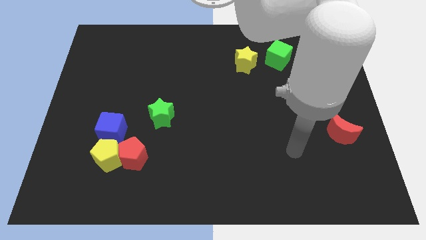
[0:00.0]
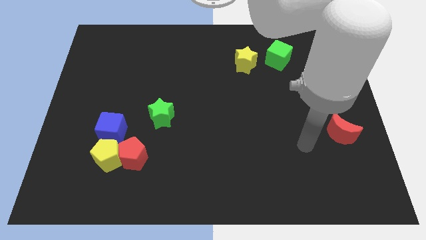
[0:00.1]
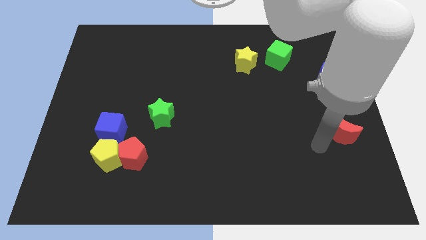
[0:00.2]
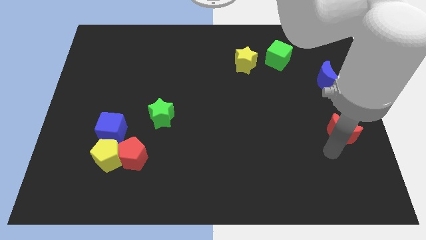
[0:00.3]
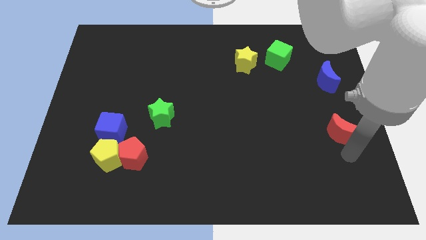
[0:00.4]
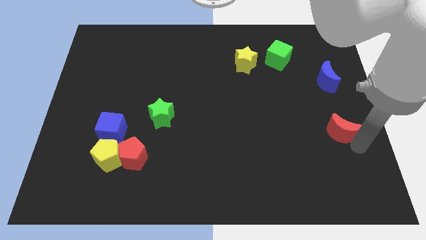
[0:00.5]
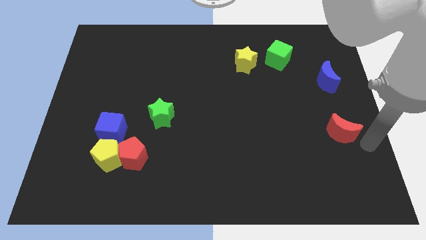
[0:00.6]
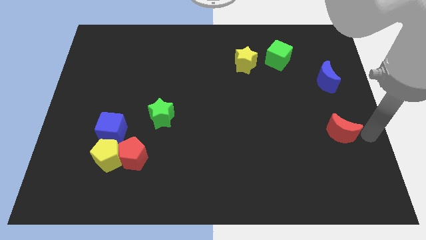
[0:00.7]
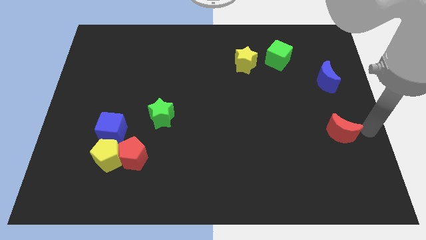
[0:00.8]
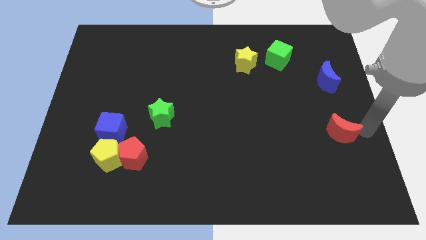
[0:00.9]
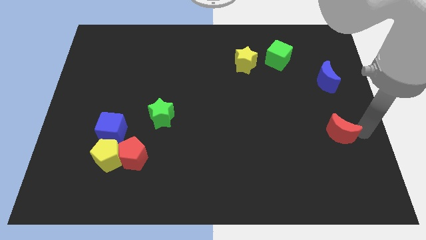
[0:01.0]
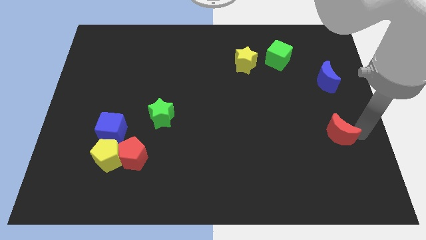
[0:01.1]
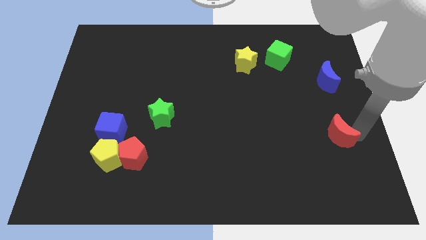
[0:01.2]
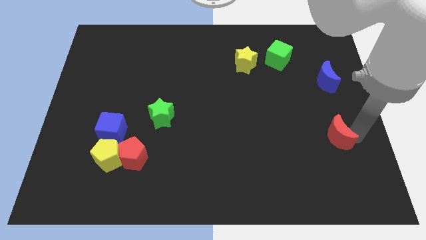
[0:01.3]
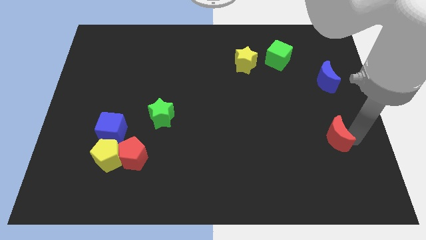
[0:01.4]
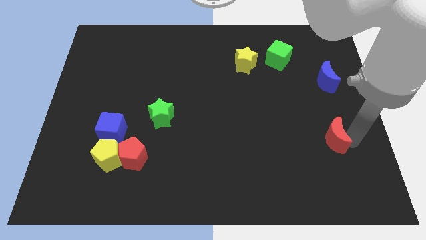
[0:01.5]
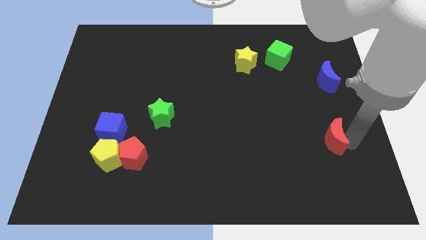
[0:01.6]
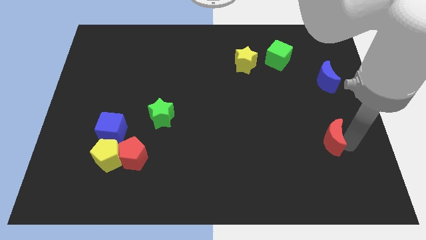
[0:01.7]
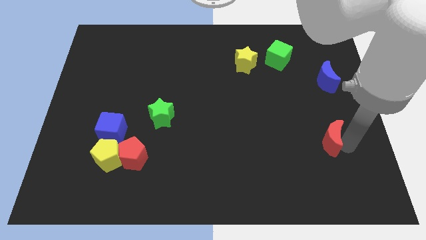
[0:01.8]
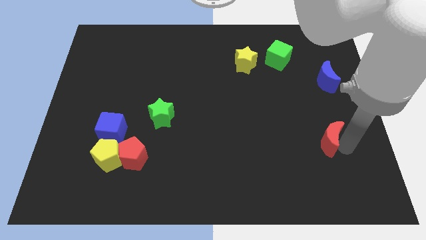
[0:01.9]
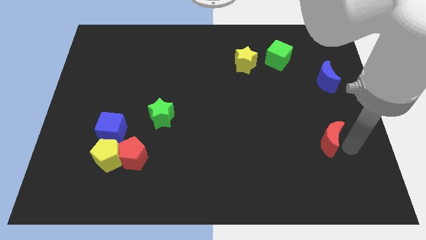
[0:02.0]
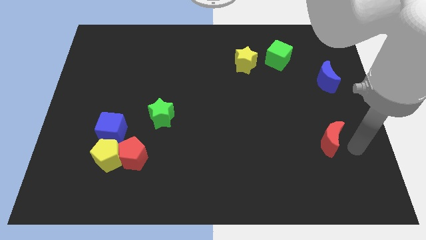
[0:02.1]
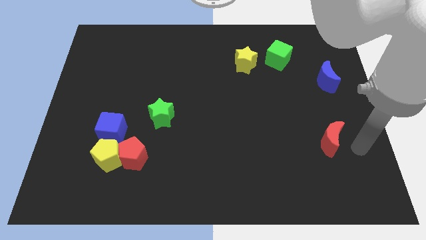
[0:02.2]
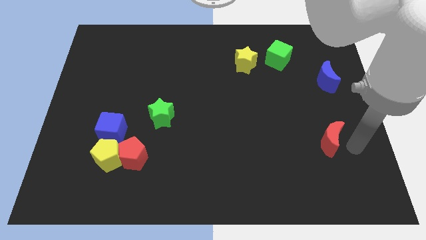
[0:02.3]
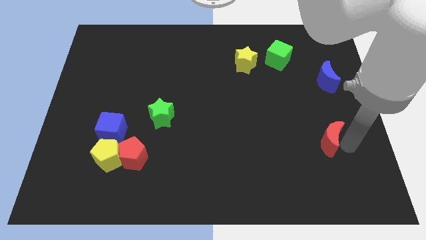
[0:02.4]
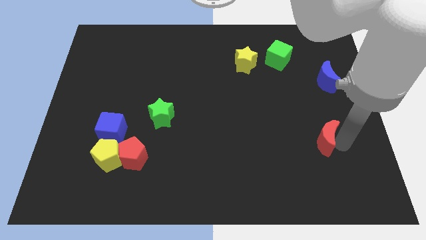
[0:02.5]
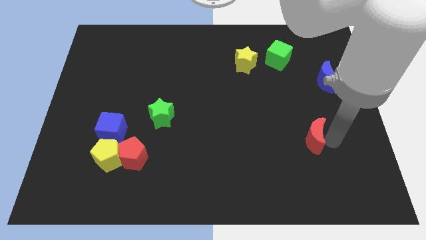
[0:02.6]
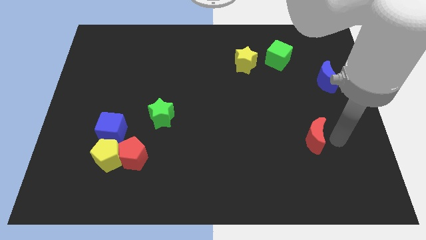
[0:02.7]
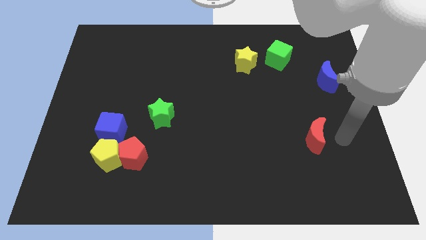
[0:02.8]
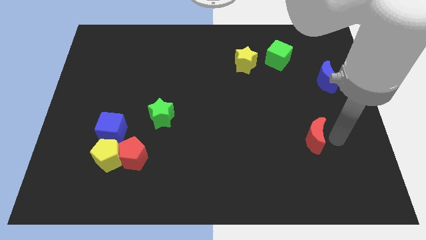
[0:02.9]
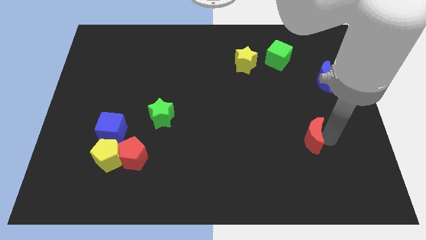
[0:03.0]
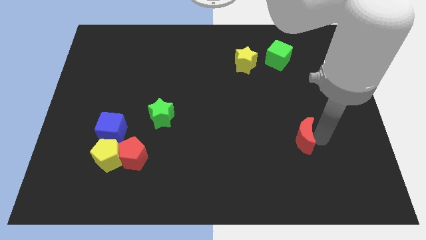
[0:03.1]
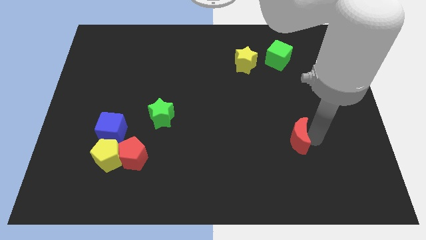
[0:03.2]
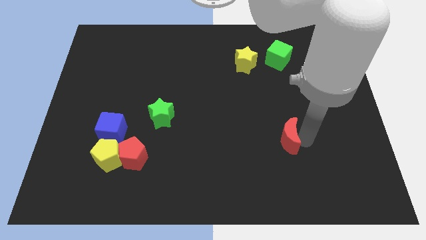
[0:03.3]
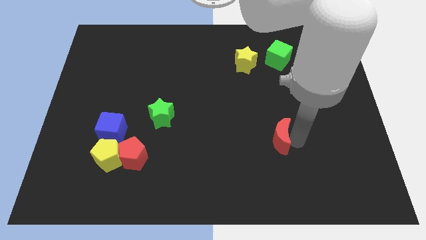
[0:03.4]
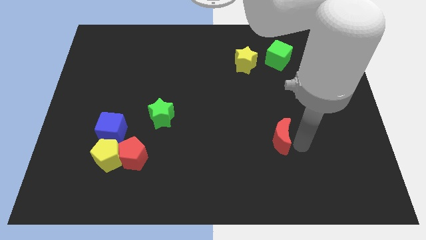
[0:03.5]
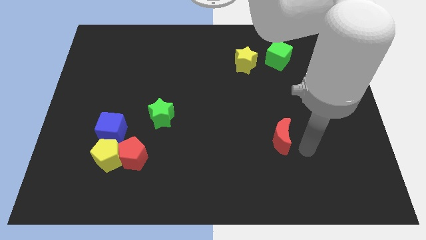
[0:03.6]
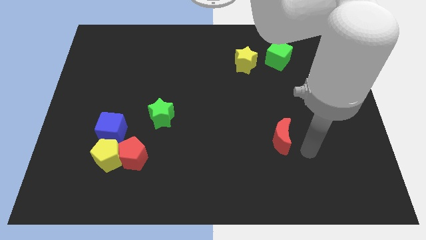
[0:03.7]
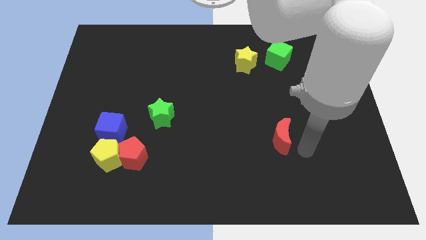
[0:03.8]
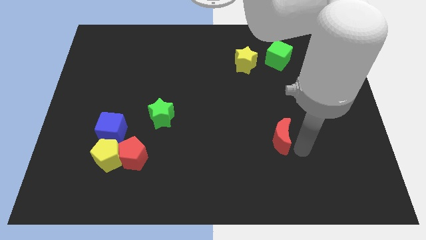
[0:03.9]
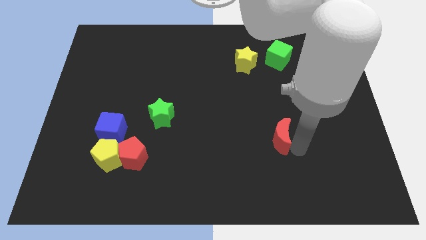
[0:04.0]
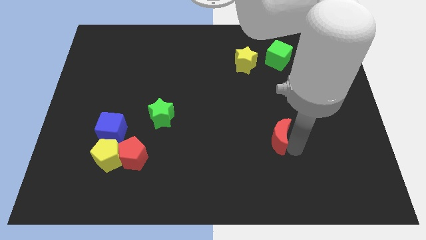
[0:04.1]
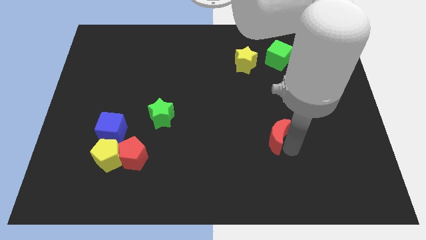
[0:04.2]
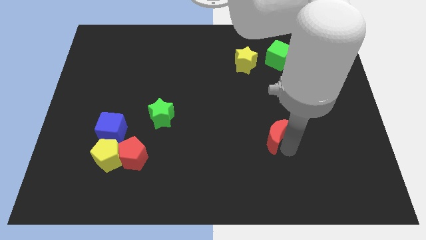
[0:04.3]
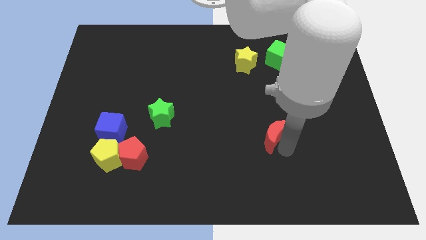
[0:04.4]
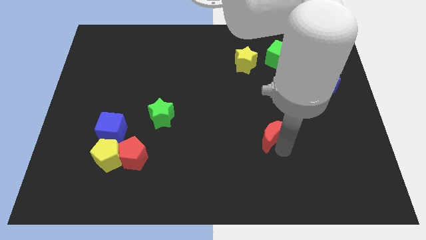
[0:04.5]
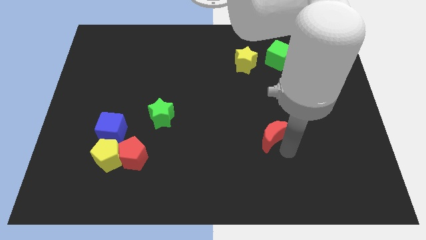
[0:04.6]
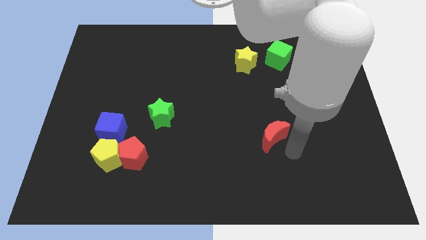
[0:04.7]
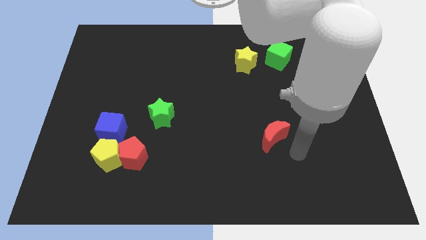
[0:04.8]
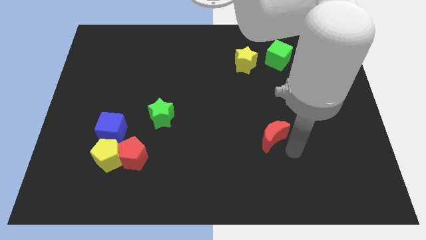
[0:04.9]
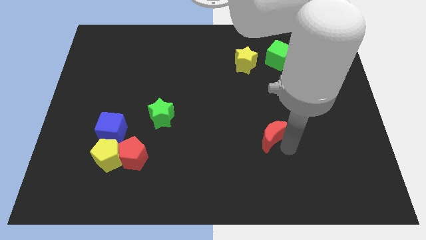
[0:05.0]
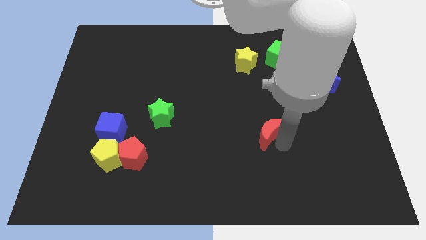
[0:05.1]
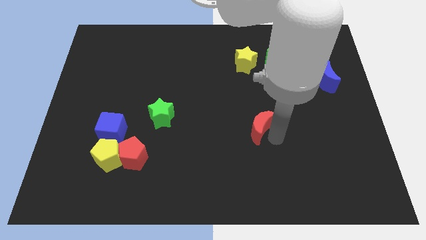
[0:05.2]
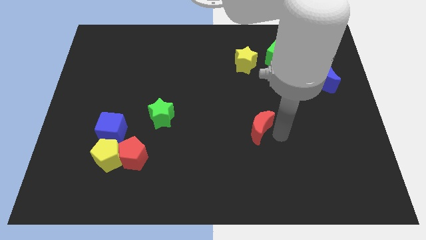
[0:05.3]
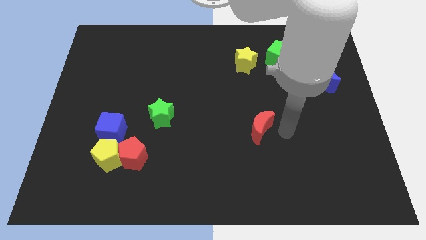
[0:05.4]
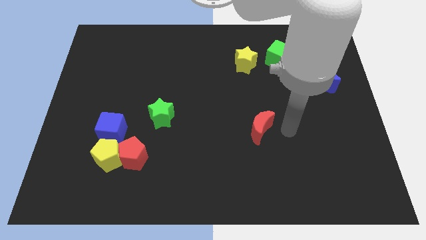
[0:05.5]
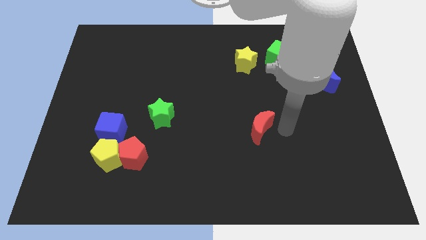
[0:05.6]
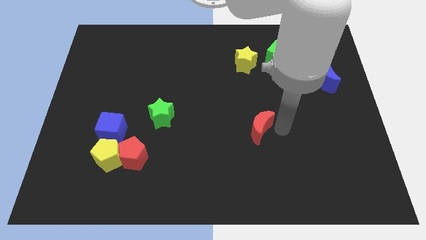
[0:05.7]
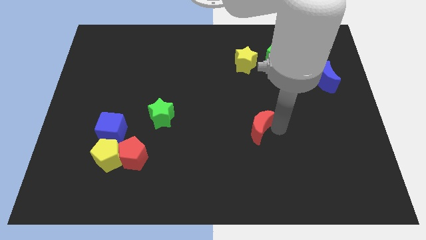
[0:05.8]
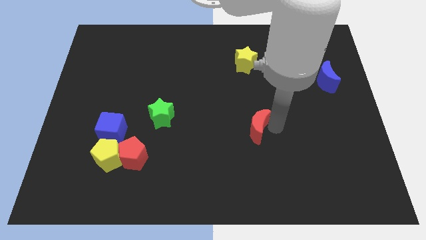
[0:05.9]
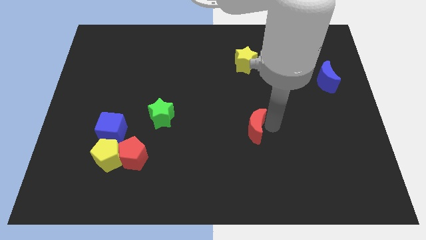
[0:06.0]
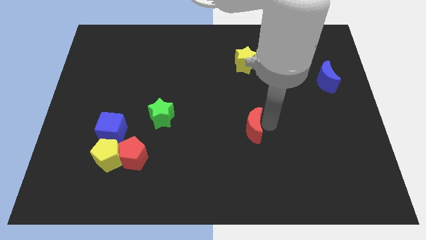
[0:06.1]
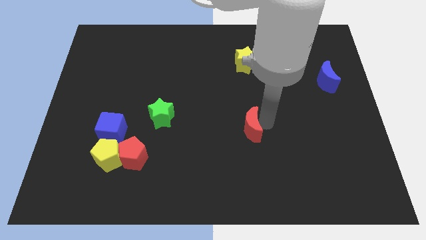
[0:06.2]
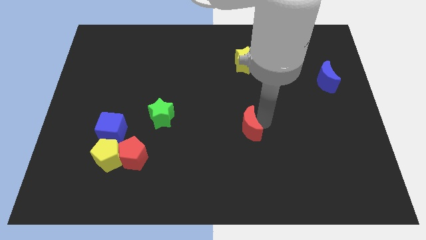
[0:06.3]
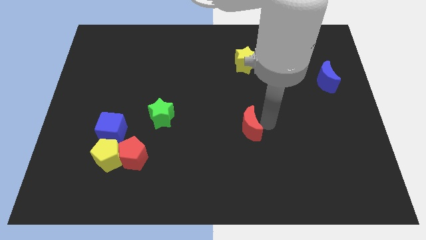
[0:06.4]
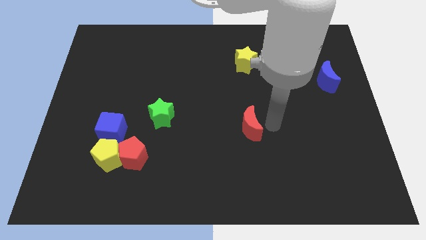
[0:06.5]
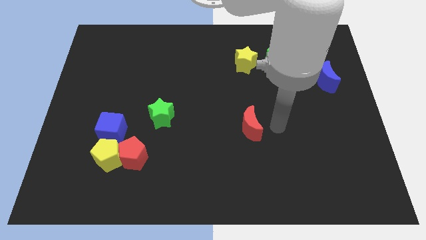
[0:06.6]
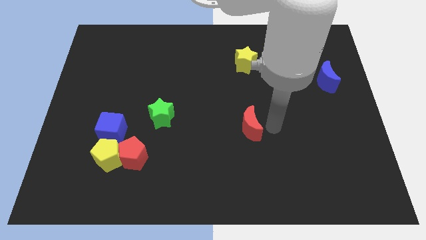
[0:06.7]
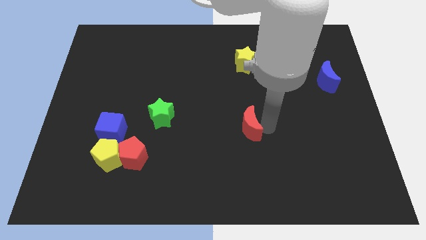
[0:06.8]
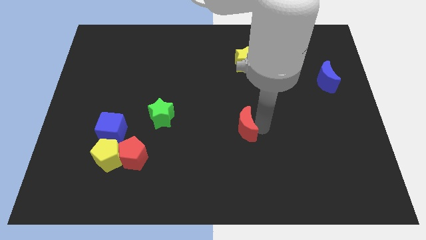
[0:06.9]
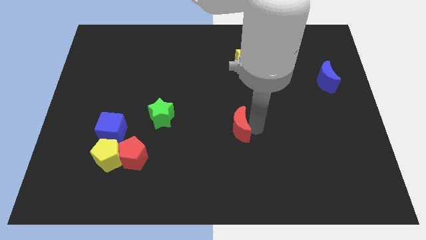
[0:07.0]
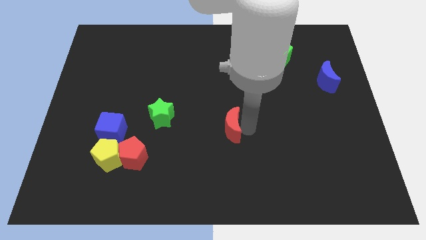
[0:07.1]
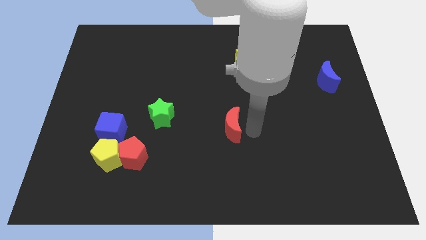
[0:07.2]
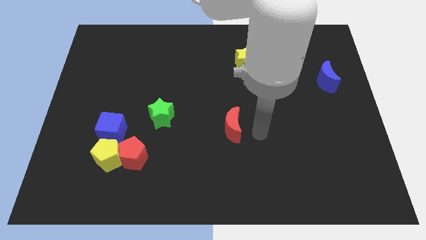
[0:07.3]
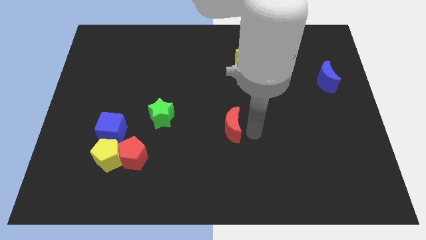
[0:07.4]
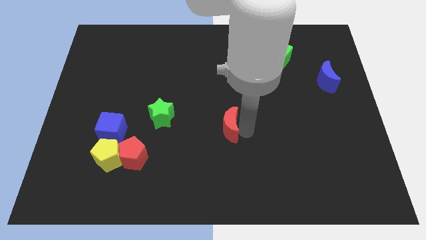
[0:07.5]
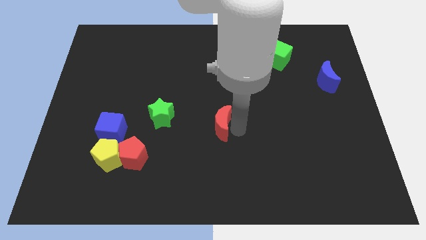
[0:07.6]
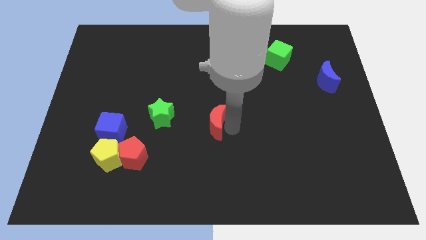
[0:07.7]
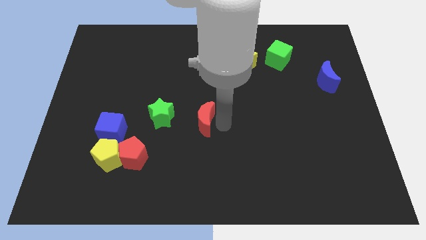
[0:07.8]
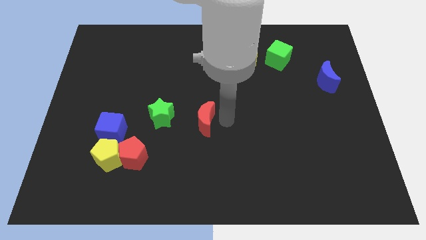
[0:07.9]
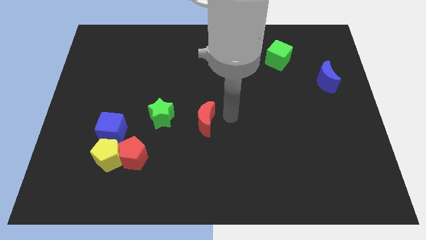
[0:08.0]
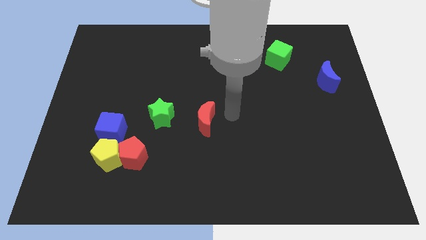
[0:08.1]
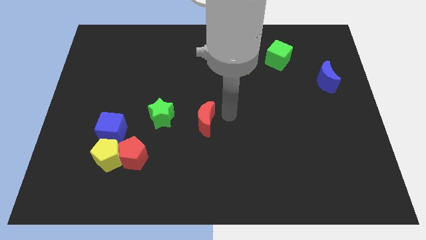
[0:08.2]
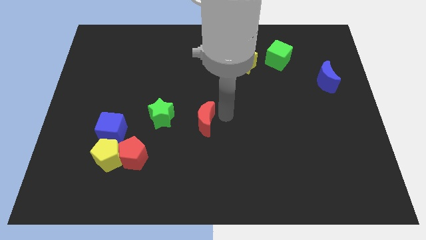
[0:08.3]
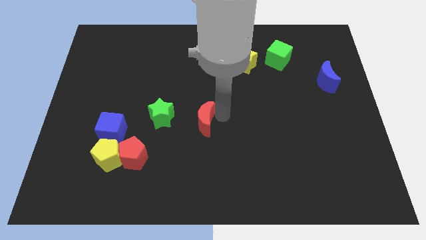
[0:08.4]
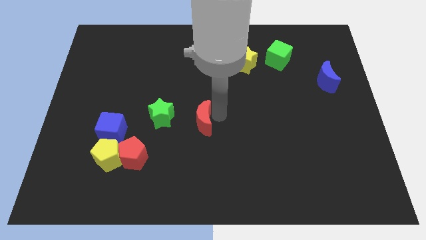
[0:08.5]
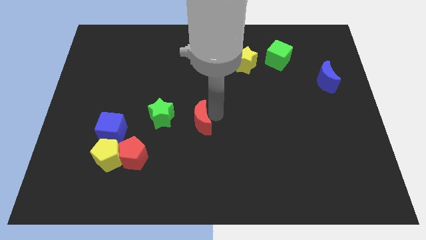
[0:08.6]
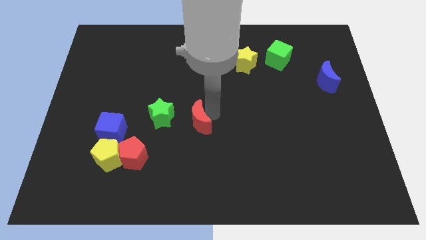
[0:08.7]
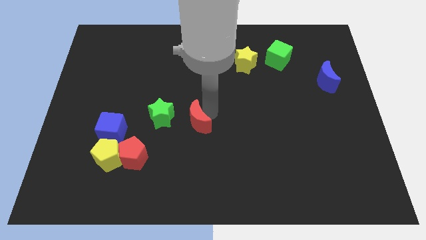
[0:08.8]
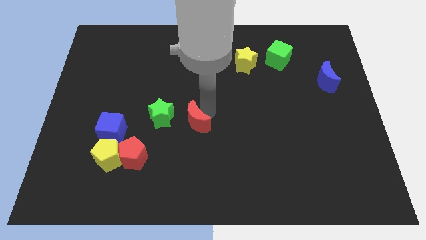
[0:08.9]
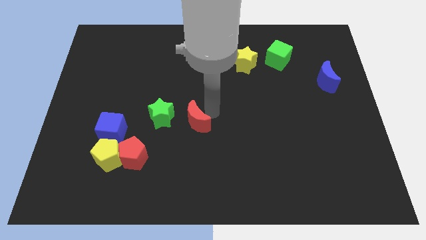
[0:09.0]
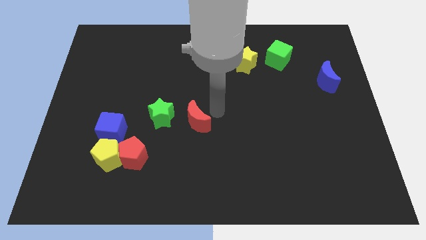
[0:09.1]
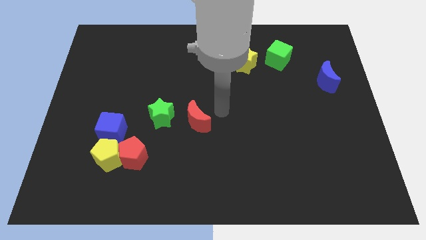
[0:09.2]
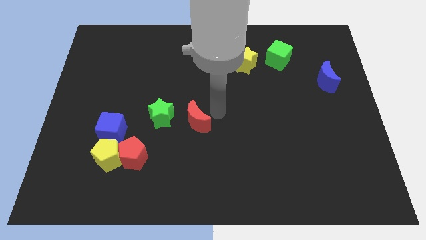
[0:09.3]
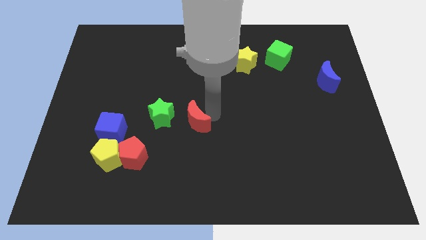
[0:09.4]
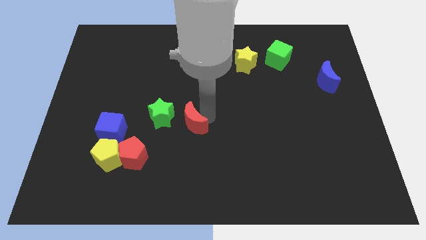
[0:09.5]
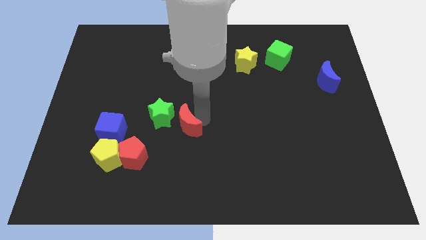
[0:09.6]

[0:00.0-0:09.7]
slide the red moon next to the green star
